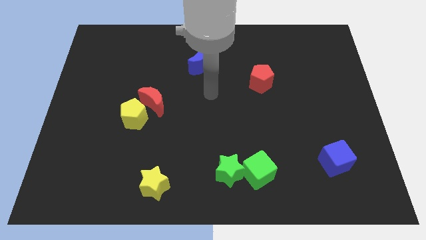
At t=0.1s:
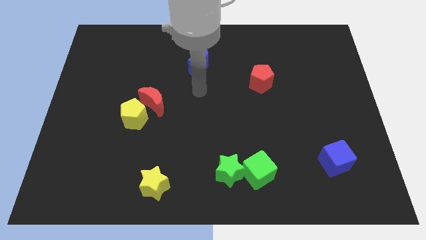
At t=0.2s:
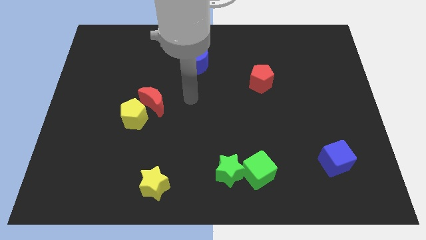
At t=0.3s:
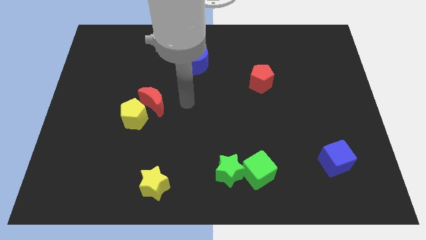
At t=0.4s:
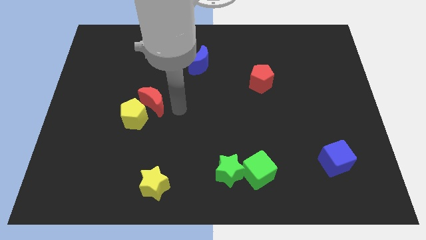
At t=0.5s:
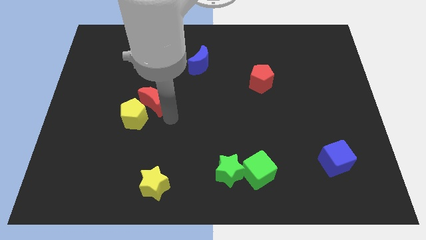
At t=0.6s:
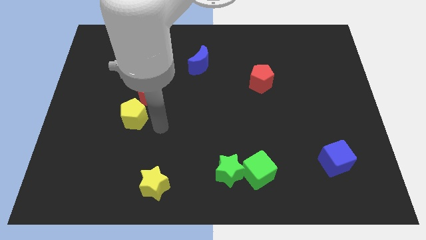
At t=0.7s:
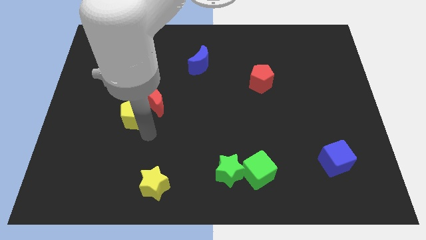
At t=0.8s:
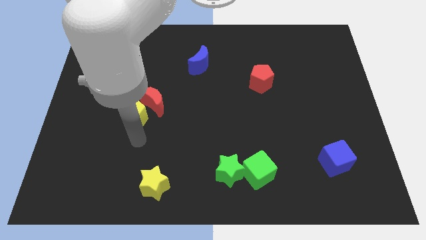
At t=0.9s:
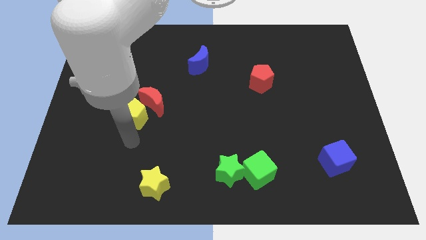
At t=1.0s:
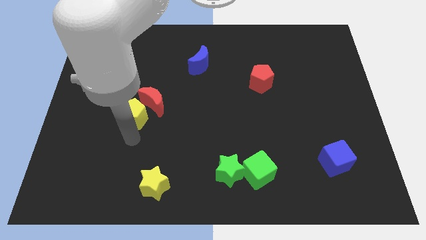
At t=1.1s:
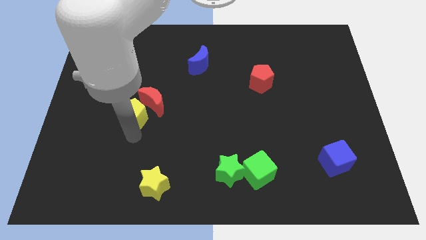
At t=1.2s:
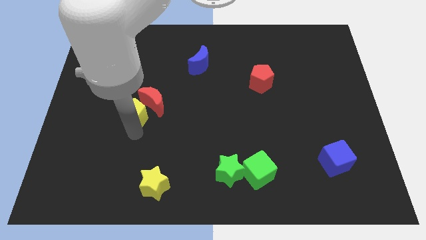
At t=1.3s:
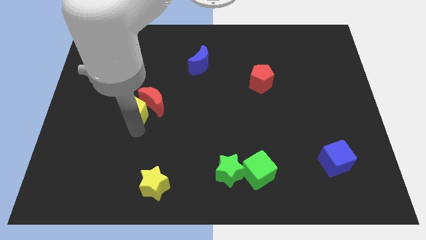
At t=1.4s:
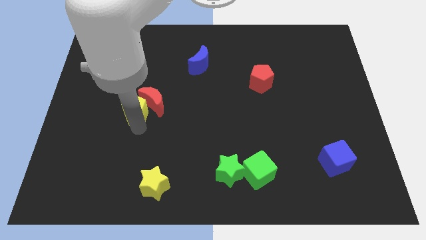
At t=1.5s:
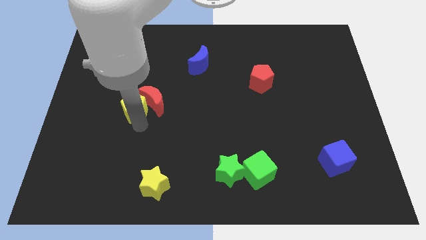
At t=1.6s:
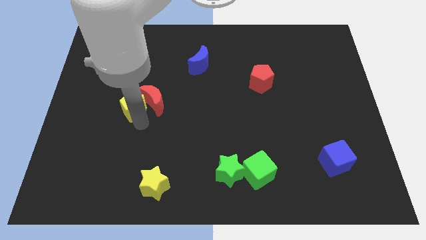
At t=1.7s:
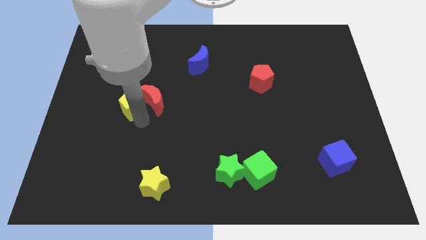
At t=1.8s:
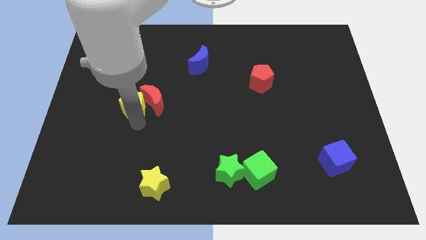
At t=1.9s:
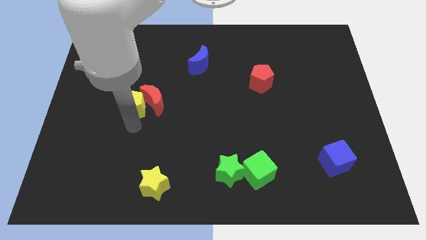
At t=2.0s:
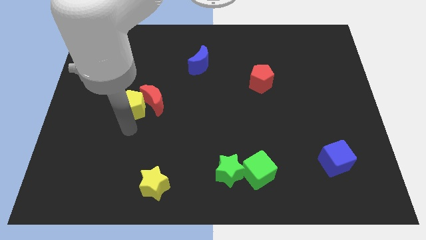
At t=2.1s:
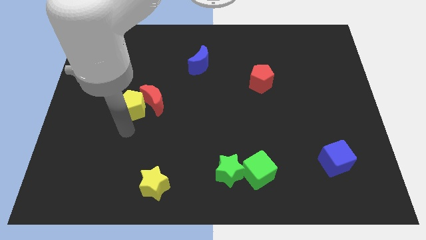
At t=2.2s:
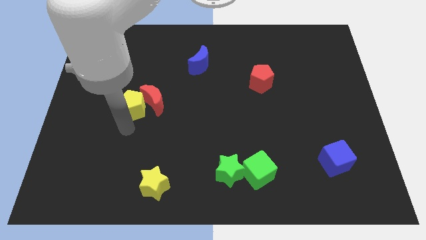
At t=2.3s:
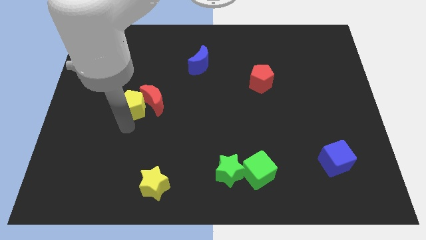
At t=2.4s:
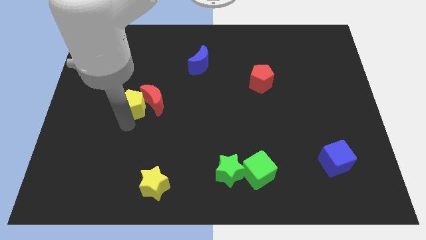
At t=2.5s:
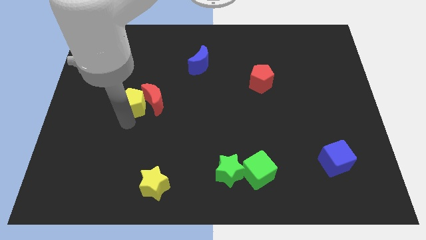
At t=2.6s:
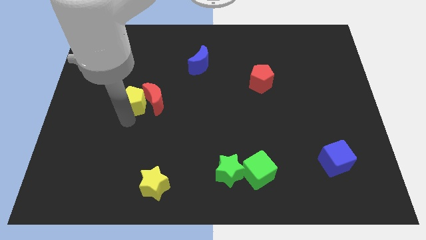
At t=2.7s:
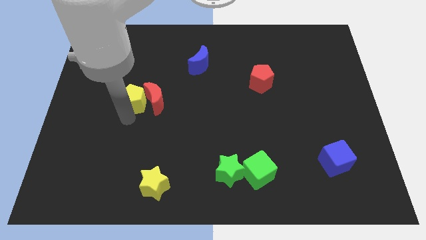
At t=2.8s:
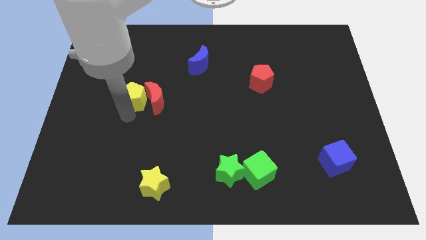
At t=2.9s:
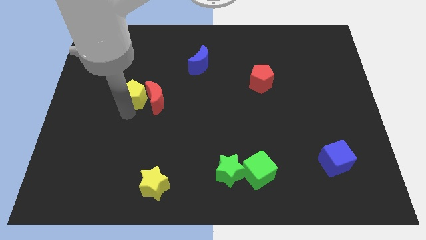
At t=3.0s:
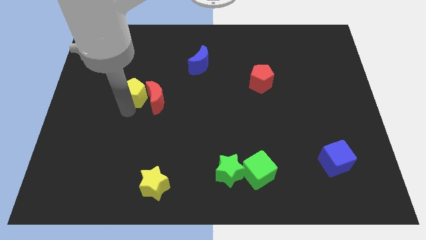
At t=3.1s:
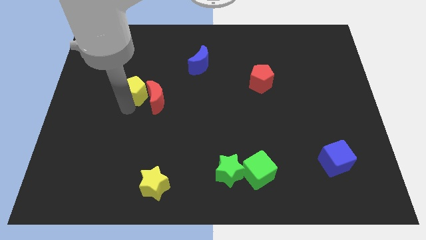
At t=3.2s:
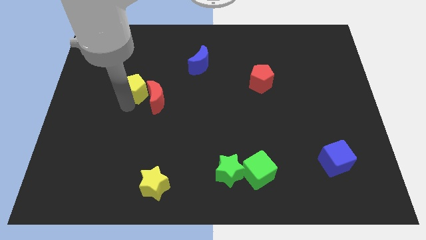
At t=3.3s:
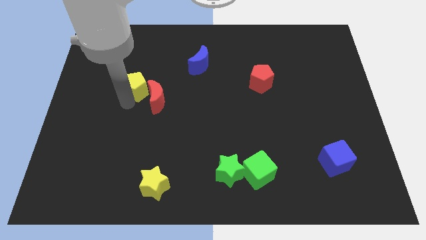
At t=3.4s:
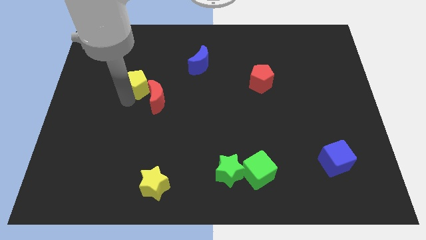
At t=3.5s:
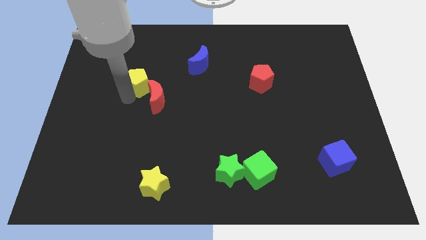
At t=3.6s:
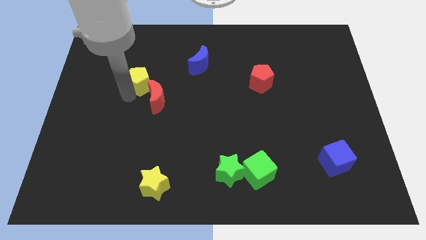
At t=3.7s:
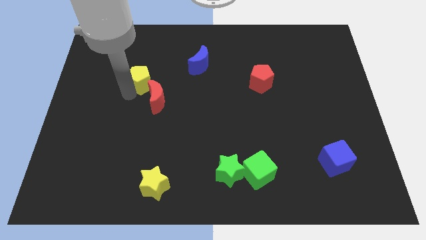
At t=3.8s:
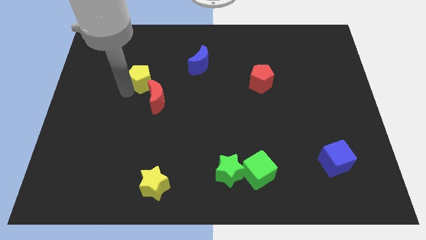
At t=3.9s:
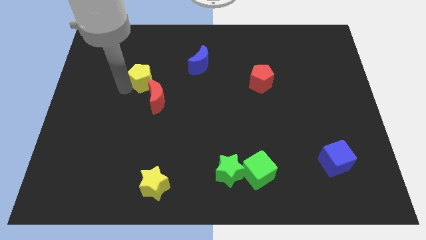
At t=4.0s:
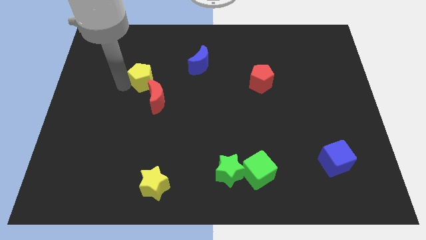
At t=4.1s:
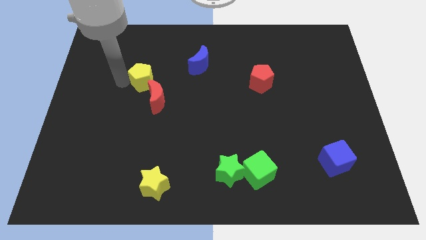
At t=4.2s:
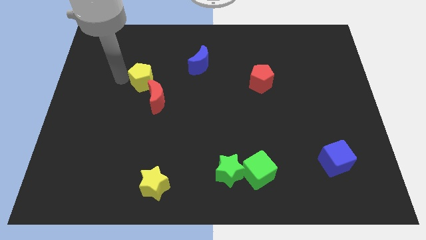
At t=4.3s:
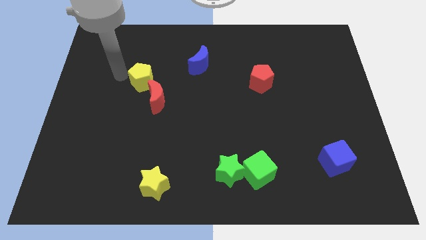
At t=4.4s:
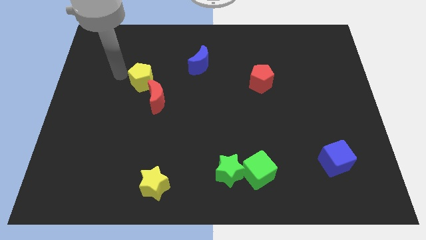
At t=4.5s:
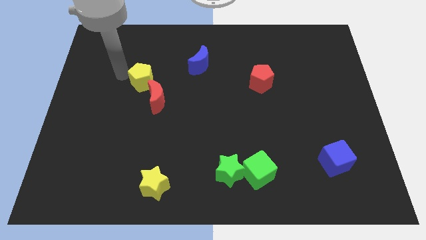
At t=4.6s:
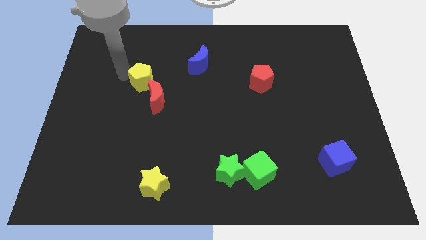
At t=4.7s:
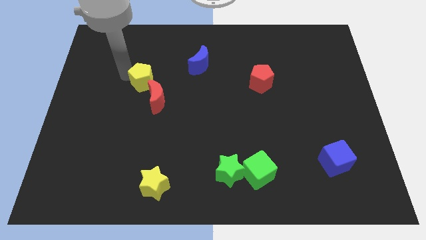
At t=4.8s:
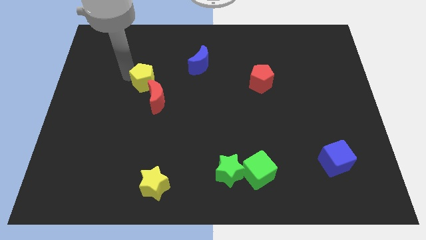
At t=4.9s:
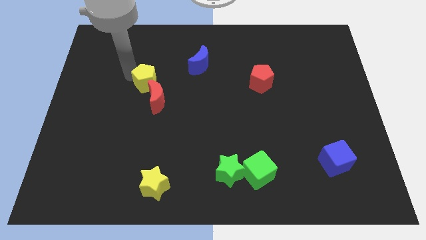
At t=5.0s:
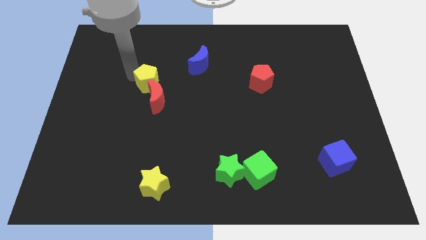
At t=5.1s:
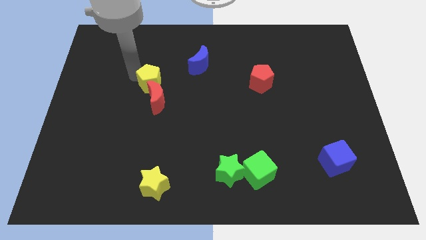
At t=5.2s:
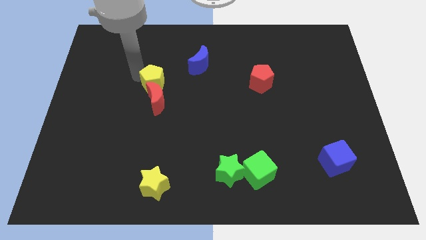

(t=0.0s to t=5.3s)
move the yellow pentagon to the top right of the red moon

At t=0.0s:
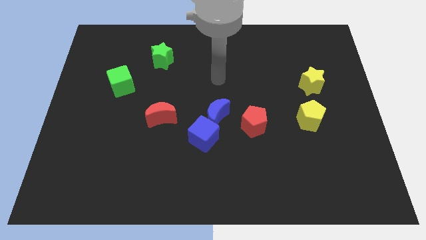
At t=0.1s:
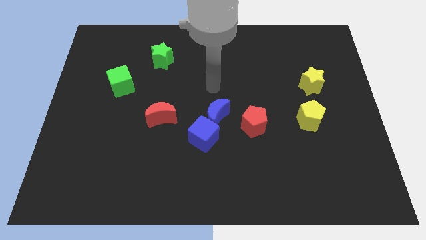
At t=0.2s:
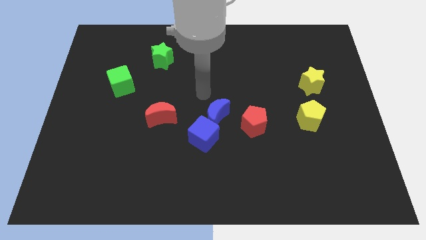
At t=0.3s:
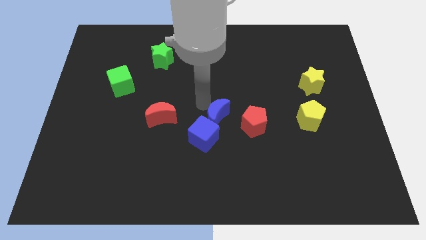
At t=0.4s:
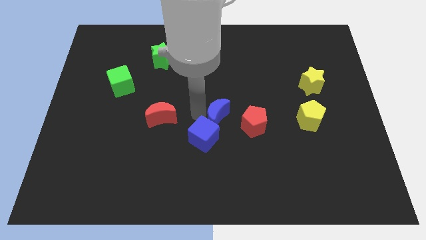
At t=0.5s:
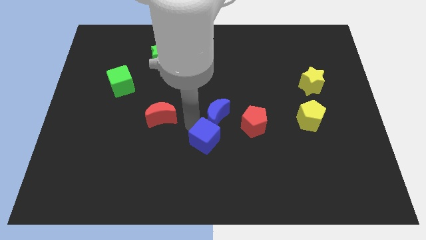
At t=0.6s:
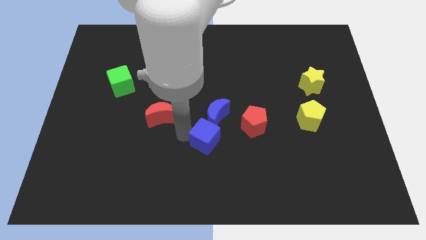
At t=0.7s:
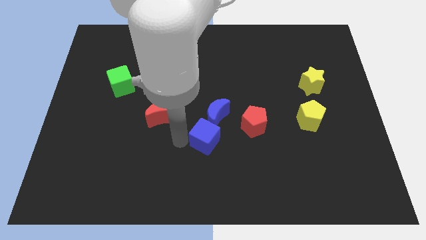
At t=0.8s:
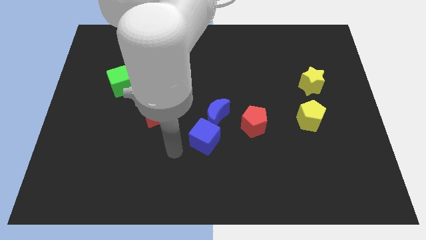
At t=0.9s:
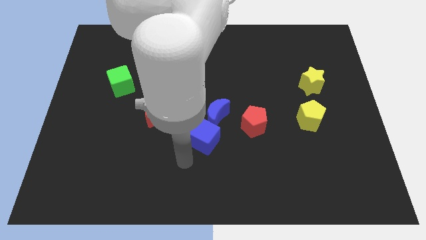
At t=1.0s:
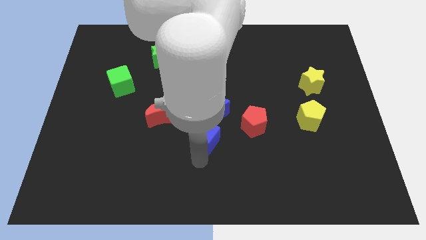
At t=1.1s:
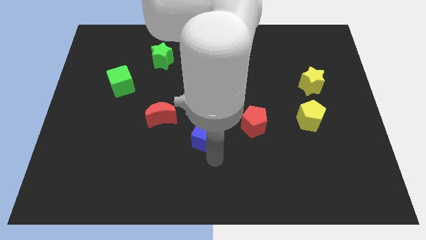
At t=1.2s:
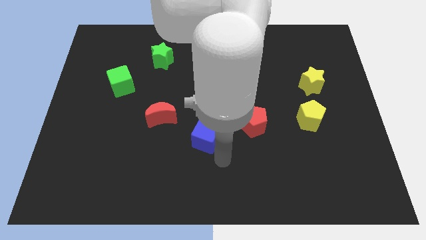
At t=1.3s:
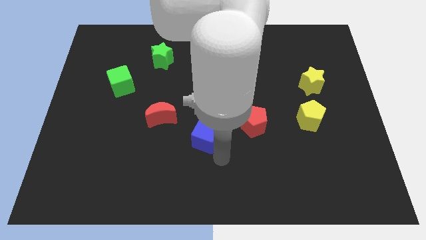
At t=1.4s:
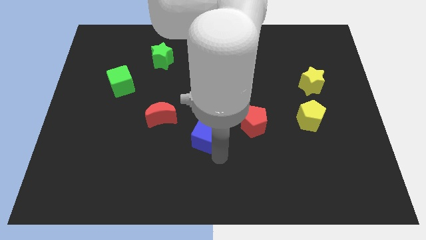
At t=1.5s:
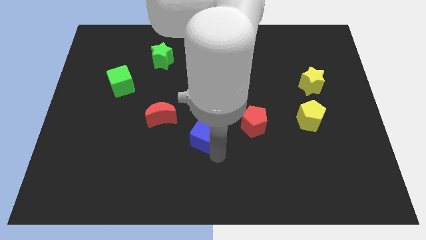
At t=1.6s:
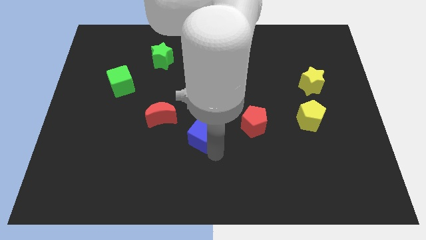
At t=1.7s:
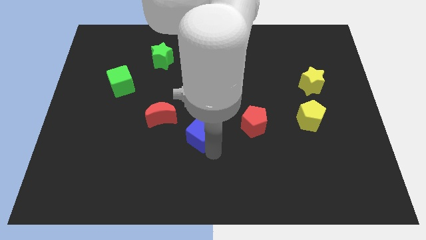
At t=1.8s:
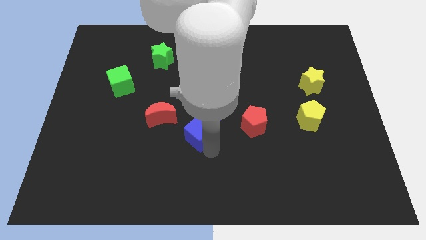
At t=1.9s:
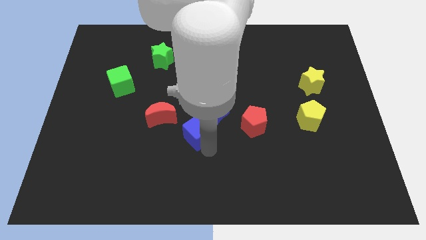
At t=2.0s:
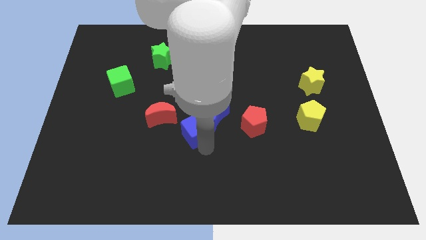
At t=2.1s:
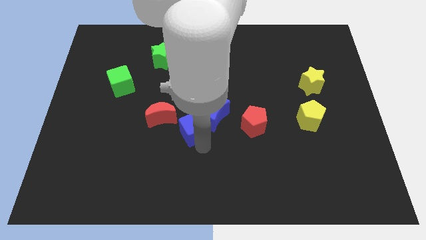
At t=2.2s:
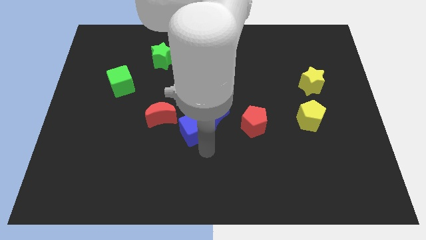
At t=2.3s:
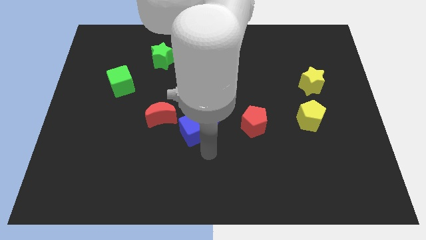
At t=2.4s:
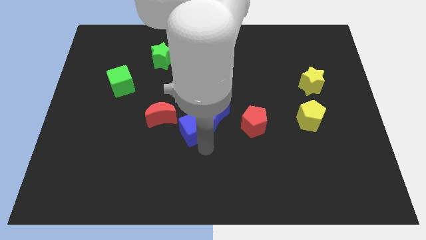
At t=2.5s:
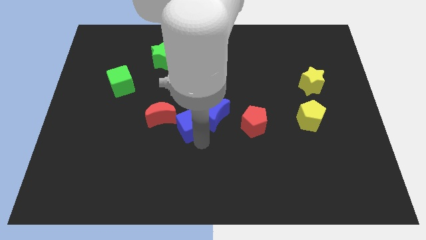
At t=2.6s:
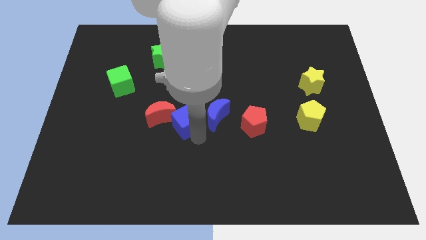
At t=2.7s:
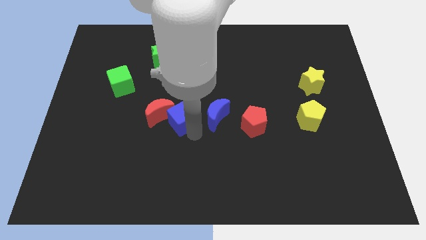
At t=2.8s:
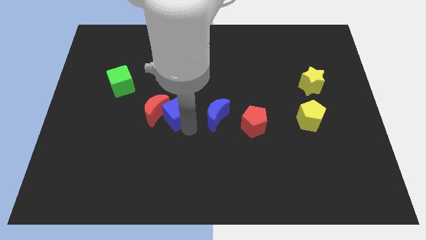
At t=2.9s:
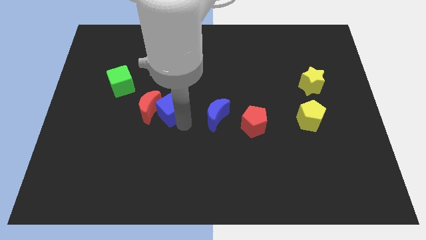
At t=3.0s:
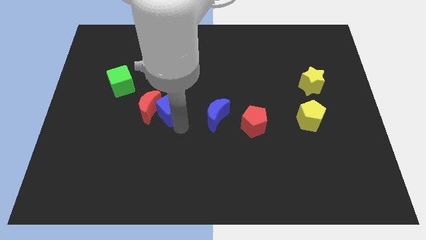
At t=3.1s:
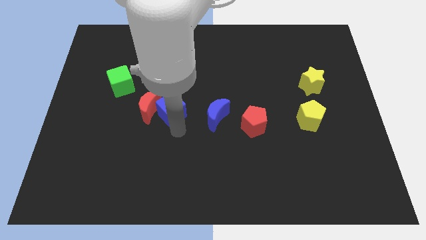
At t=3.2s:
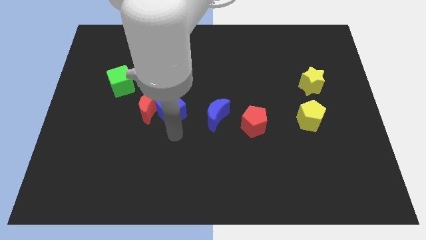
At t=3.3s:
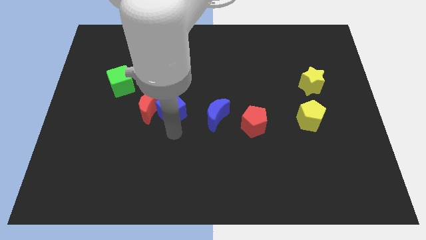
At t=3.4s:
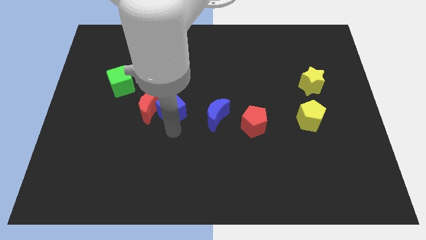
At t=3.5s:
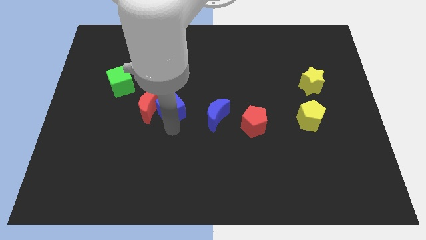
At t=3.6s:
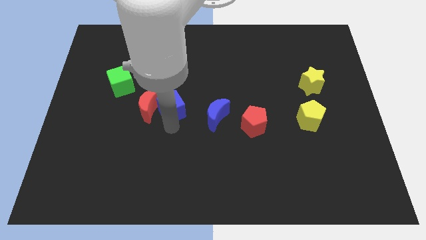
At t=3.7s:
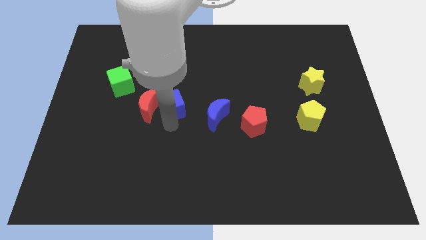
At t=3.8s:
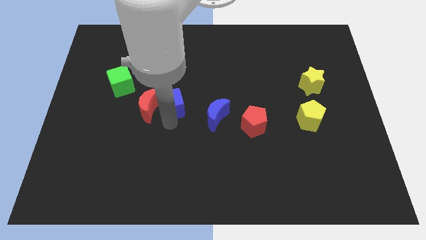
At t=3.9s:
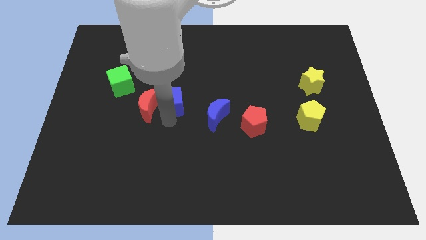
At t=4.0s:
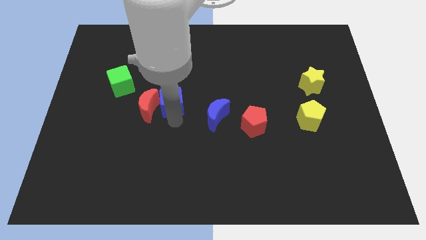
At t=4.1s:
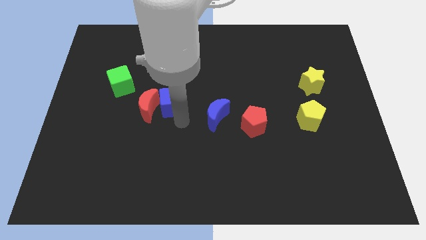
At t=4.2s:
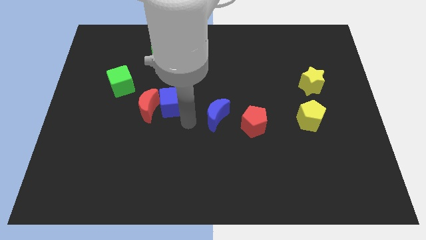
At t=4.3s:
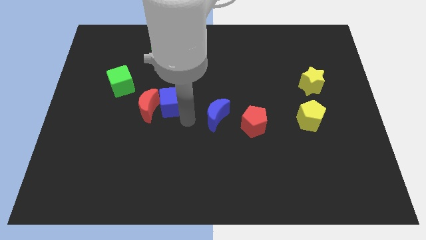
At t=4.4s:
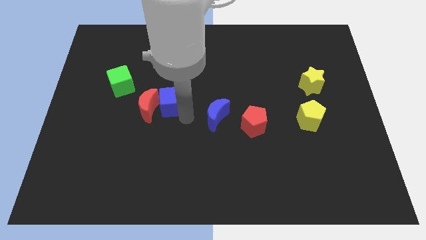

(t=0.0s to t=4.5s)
push the blue cube to the bottom side of the green star
